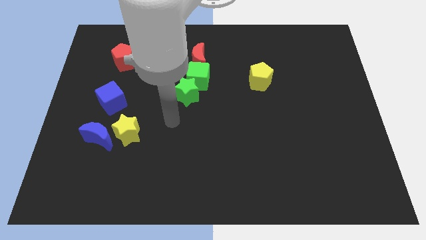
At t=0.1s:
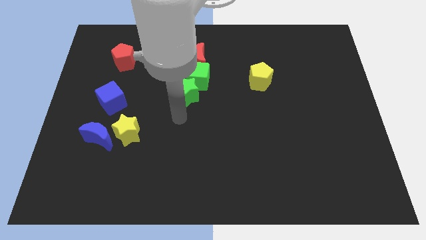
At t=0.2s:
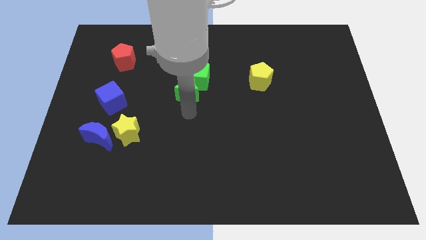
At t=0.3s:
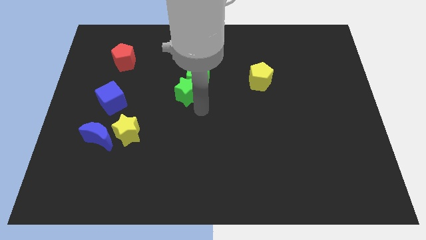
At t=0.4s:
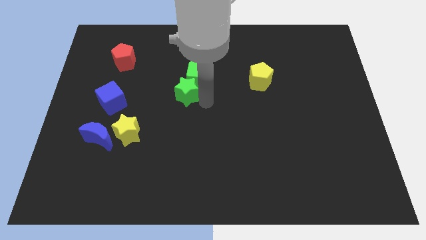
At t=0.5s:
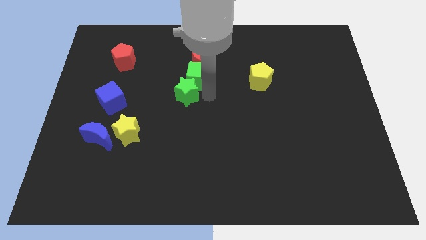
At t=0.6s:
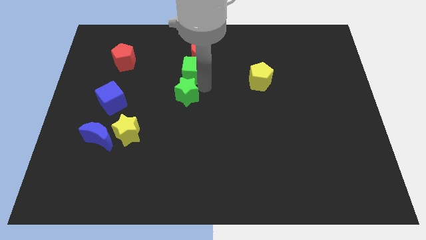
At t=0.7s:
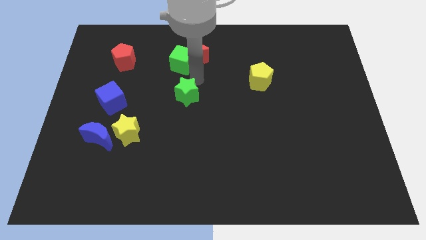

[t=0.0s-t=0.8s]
separate the green star from the green cube

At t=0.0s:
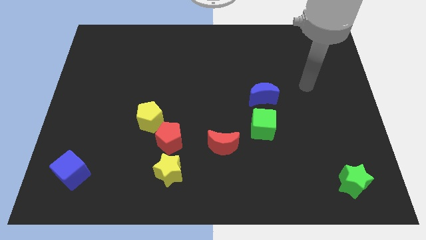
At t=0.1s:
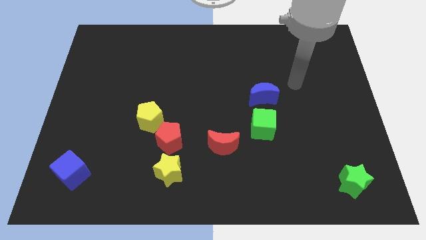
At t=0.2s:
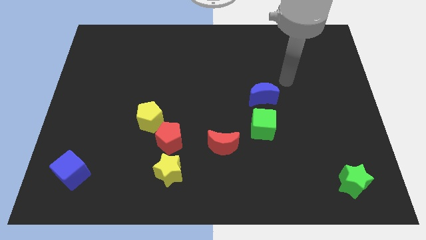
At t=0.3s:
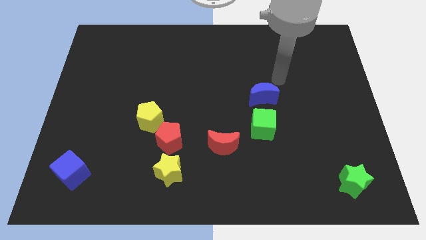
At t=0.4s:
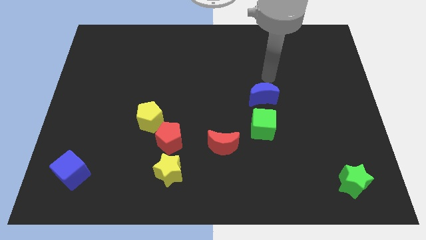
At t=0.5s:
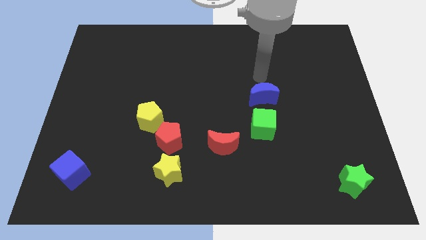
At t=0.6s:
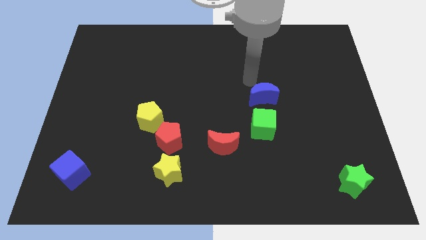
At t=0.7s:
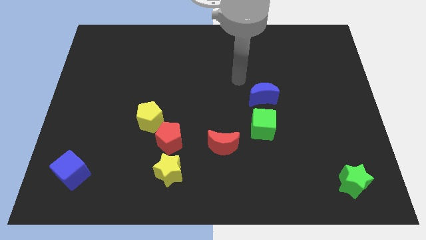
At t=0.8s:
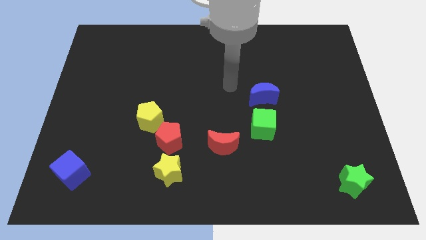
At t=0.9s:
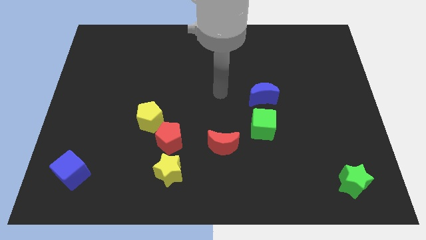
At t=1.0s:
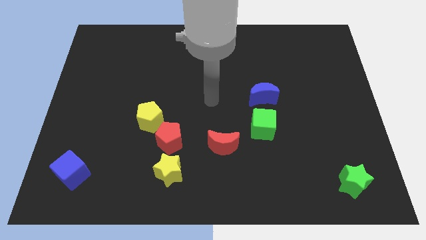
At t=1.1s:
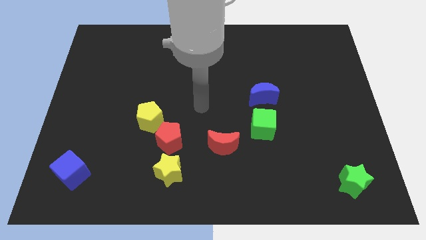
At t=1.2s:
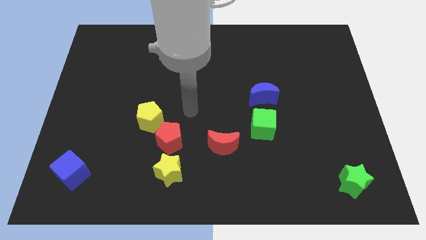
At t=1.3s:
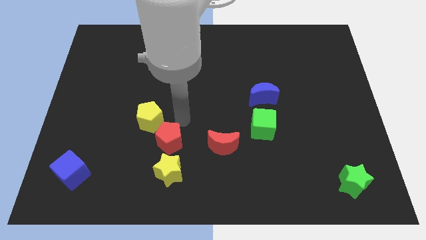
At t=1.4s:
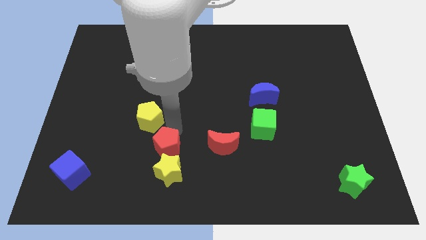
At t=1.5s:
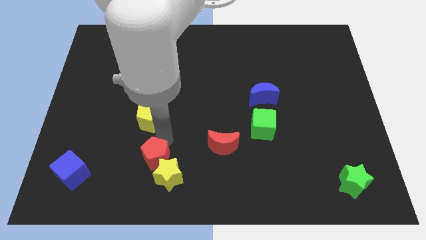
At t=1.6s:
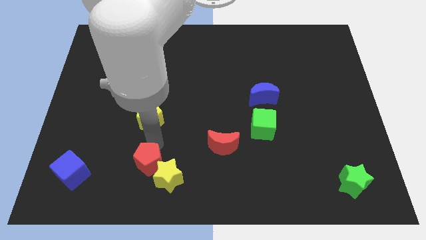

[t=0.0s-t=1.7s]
move the yellow pentagon away from the red pentagon

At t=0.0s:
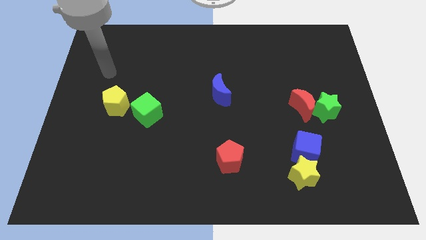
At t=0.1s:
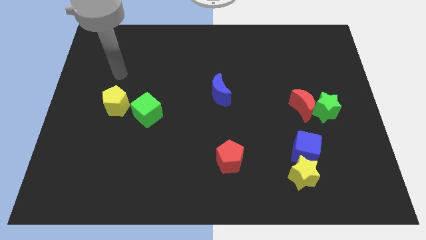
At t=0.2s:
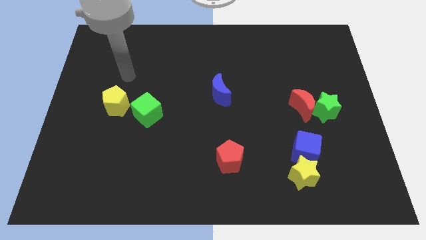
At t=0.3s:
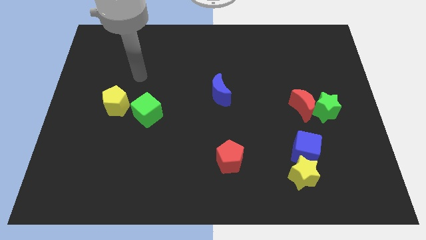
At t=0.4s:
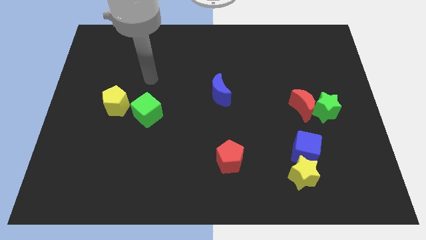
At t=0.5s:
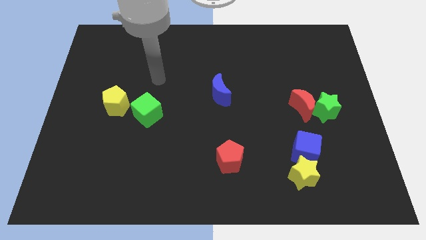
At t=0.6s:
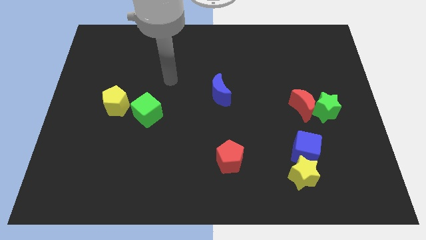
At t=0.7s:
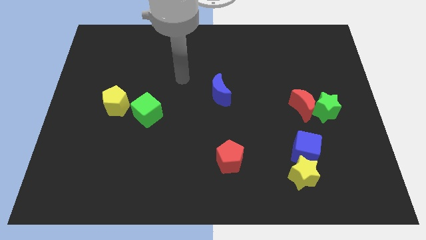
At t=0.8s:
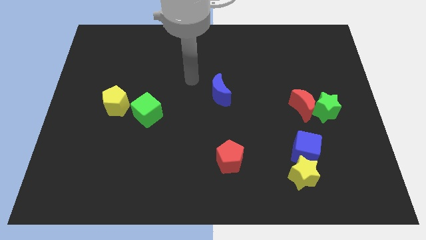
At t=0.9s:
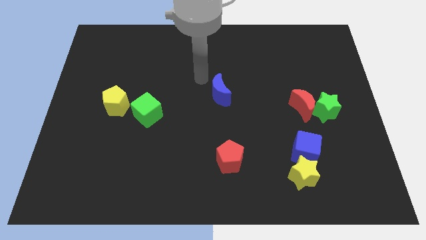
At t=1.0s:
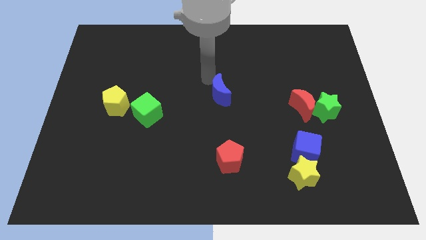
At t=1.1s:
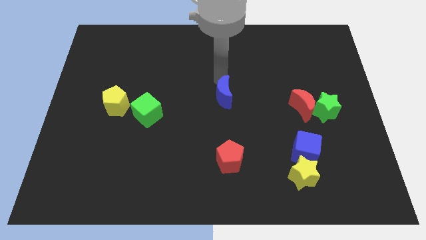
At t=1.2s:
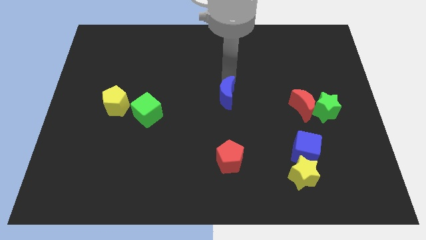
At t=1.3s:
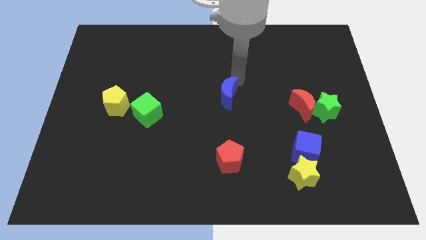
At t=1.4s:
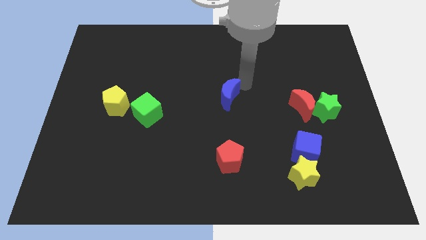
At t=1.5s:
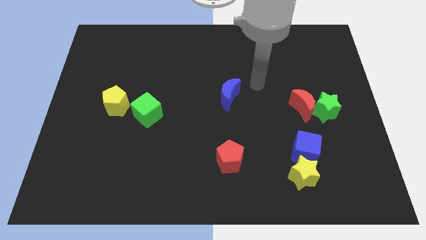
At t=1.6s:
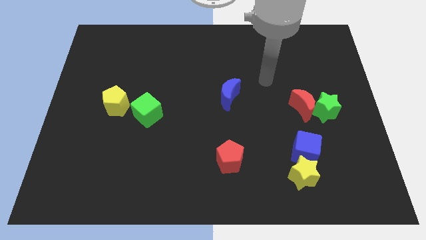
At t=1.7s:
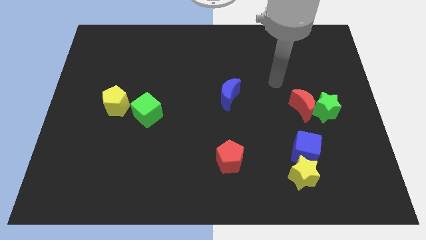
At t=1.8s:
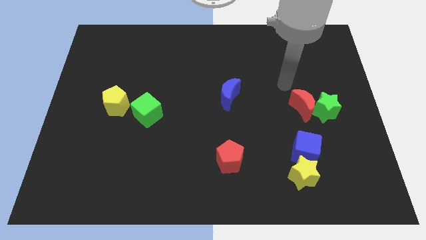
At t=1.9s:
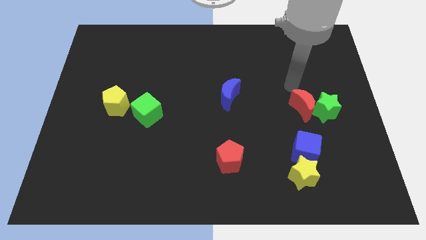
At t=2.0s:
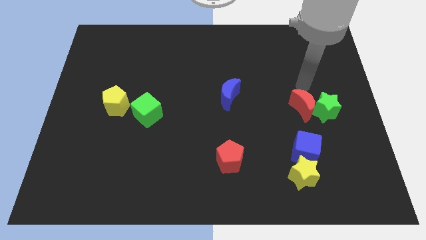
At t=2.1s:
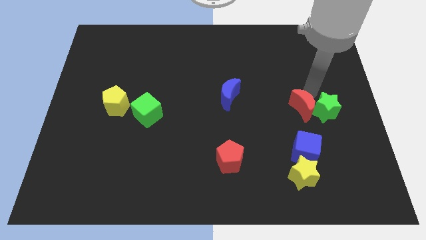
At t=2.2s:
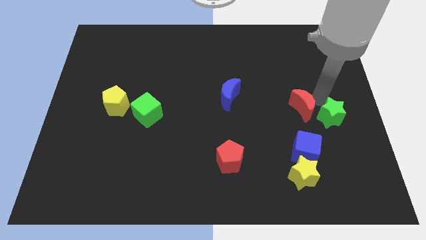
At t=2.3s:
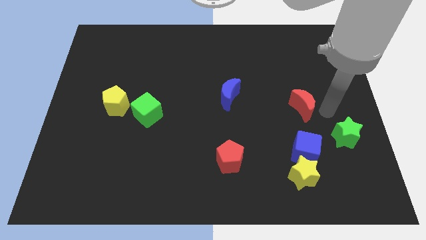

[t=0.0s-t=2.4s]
separate the red moon from the green star

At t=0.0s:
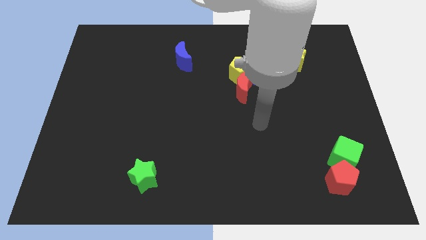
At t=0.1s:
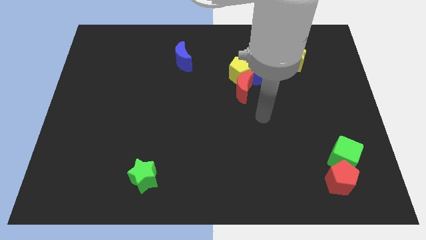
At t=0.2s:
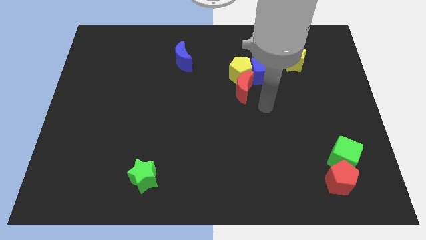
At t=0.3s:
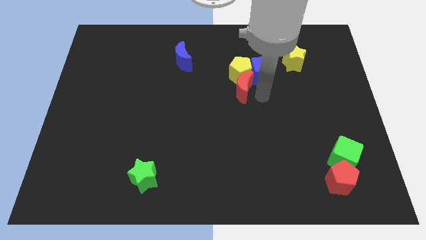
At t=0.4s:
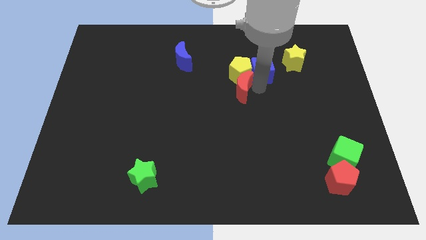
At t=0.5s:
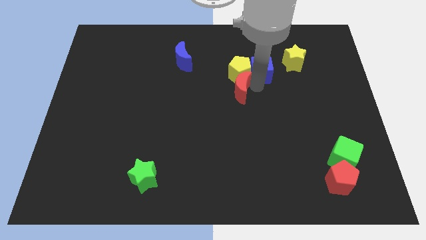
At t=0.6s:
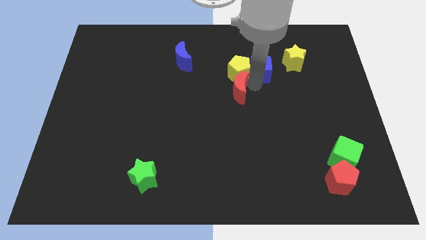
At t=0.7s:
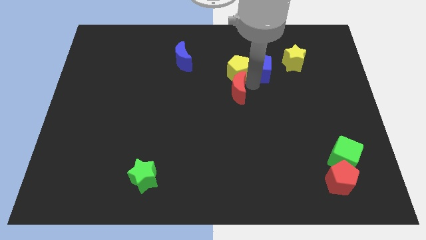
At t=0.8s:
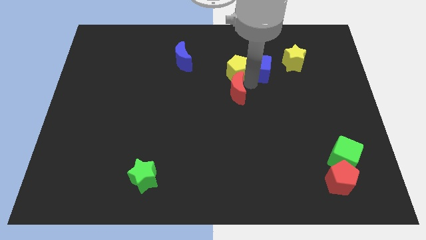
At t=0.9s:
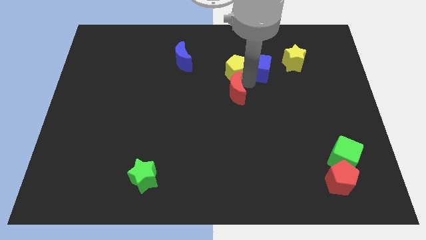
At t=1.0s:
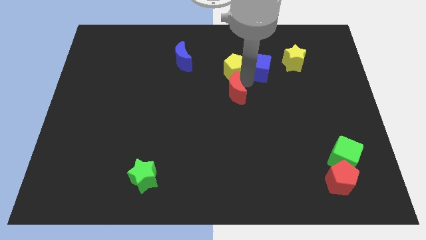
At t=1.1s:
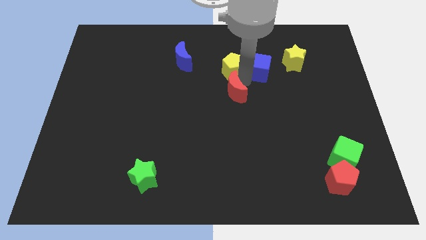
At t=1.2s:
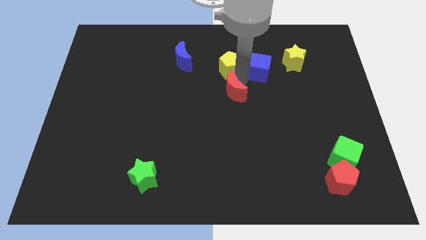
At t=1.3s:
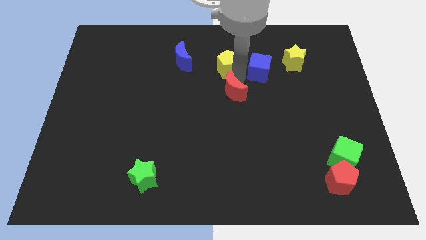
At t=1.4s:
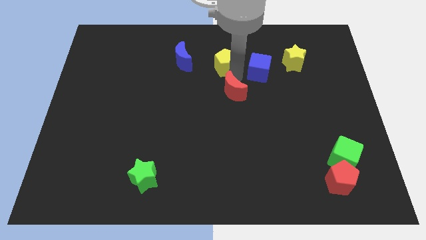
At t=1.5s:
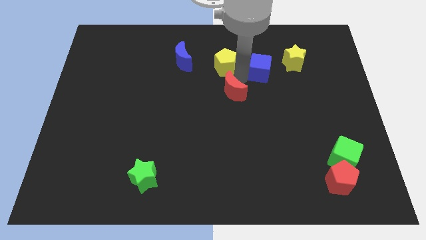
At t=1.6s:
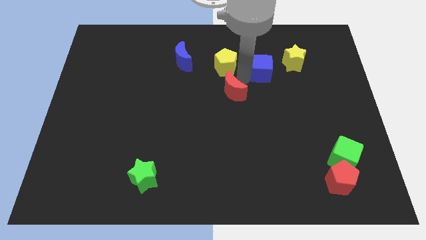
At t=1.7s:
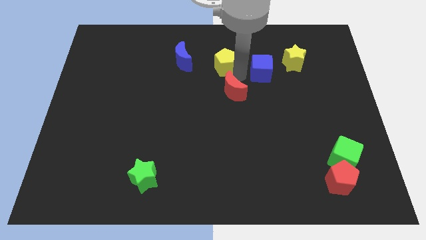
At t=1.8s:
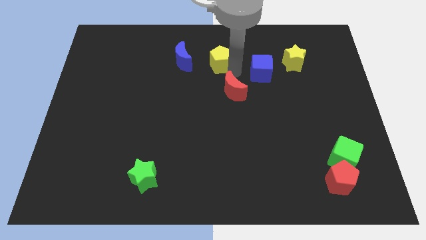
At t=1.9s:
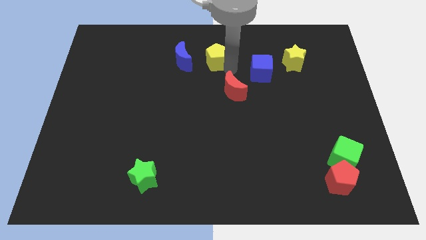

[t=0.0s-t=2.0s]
separate the yellow pentagon from the red moon and blue cube

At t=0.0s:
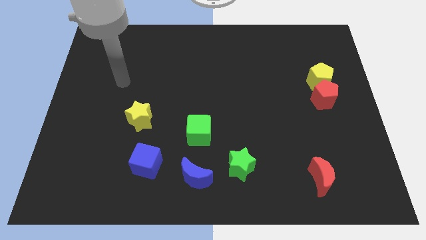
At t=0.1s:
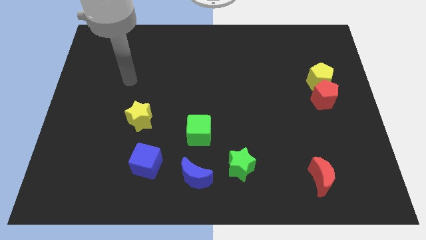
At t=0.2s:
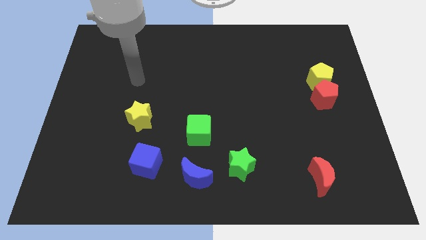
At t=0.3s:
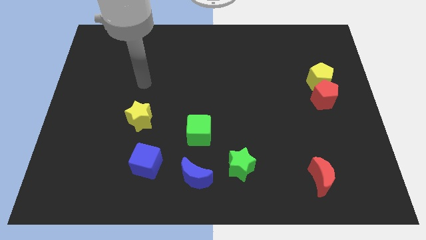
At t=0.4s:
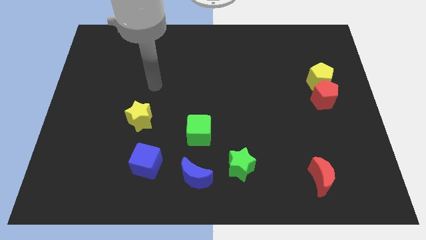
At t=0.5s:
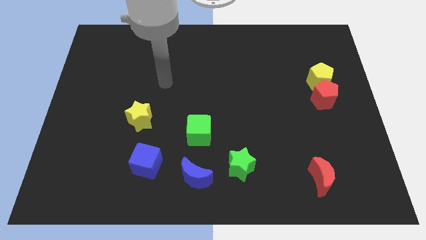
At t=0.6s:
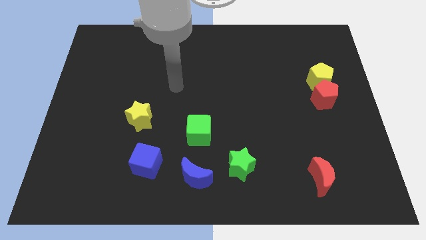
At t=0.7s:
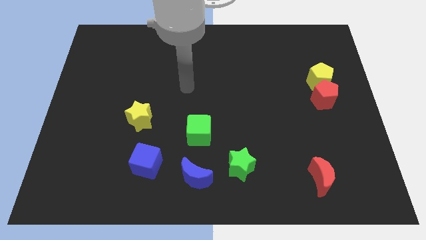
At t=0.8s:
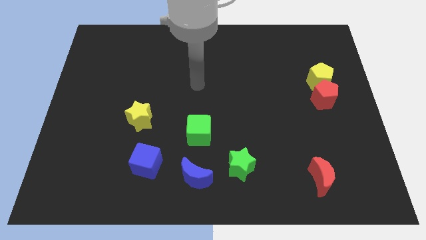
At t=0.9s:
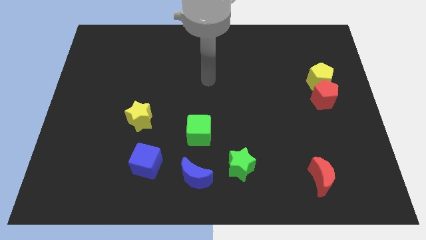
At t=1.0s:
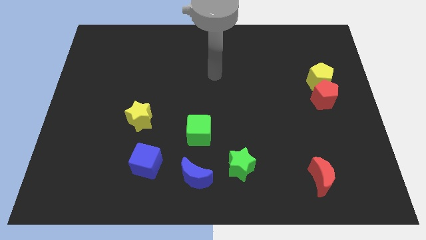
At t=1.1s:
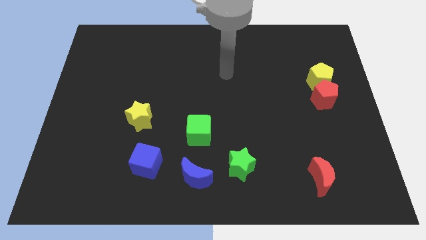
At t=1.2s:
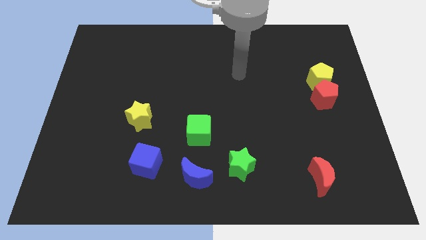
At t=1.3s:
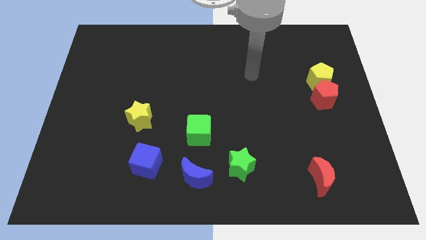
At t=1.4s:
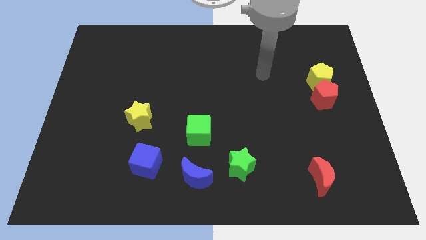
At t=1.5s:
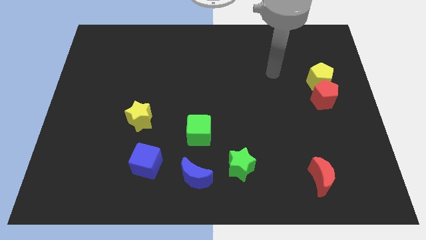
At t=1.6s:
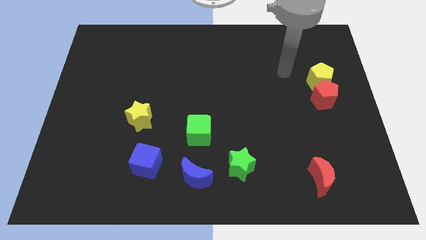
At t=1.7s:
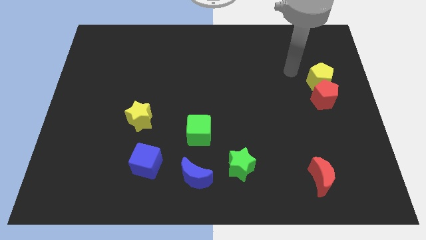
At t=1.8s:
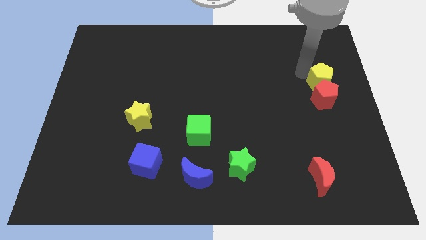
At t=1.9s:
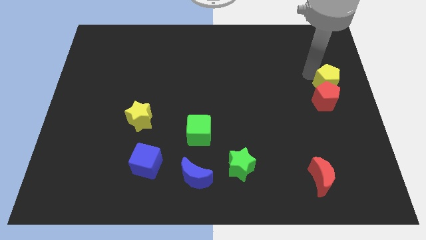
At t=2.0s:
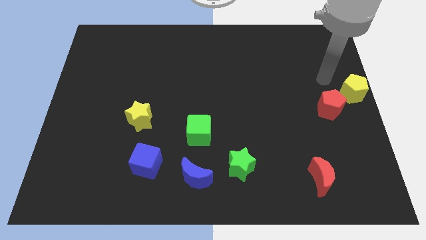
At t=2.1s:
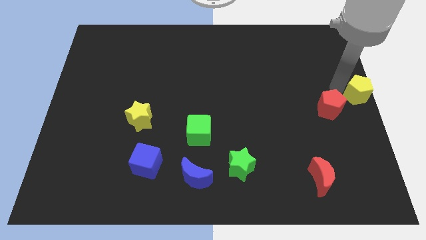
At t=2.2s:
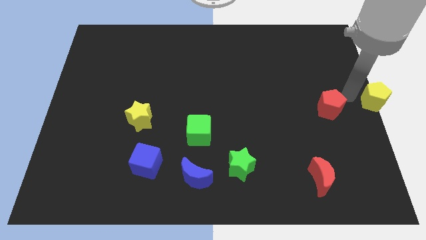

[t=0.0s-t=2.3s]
move the red pentagon away from the yellow pentagon

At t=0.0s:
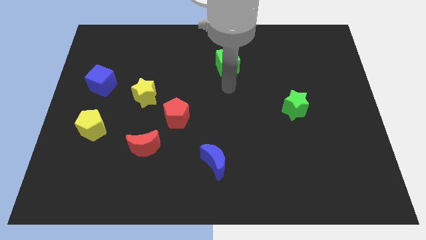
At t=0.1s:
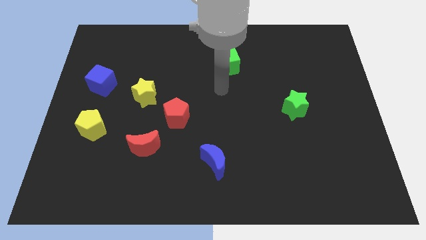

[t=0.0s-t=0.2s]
separate the yellow star from the red pentagon

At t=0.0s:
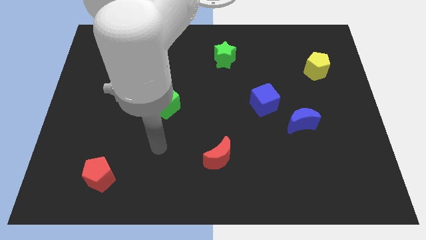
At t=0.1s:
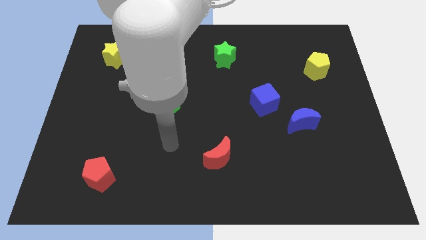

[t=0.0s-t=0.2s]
separate the blue moon from the blue cube
